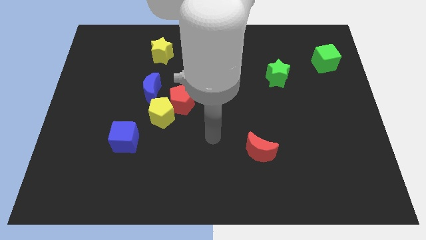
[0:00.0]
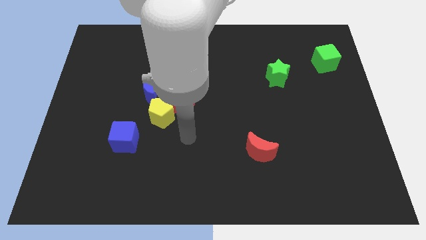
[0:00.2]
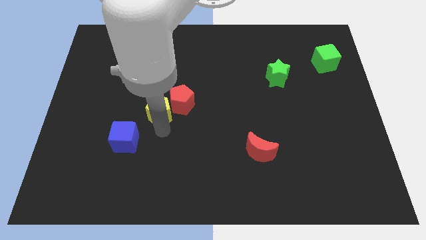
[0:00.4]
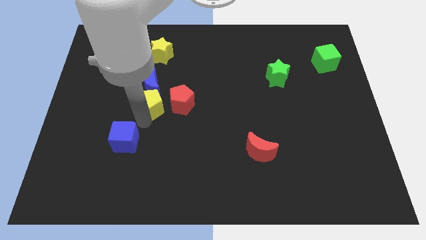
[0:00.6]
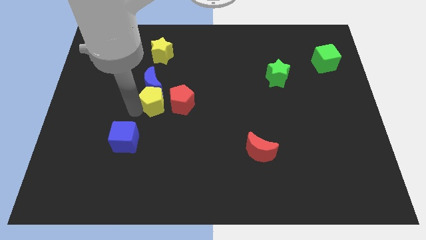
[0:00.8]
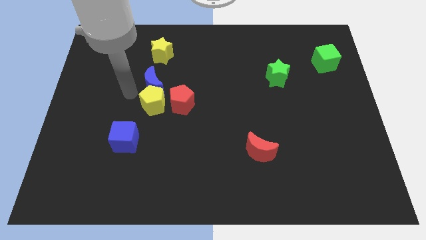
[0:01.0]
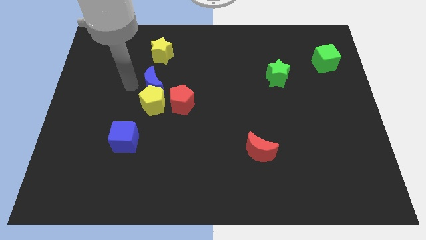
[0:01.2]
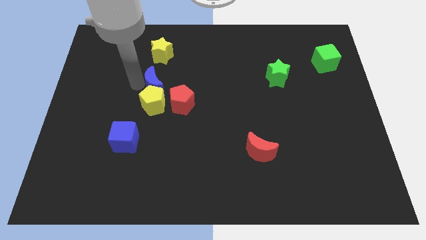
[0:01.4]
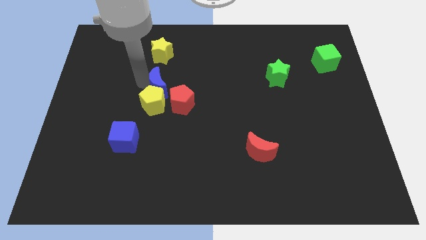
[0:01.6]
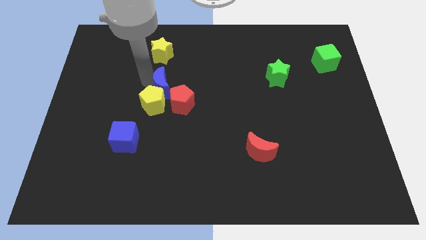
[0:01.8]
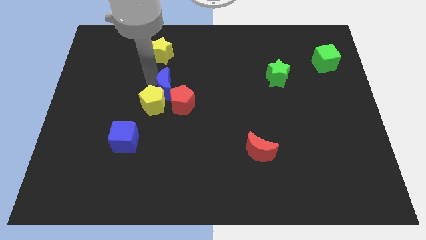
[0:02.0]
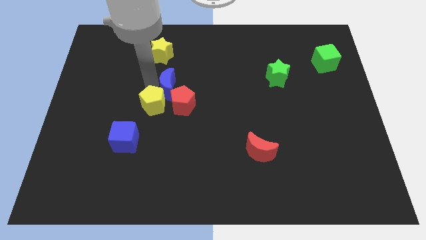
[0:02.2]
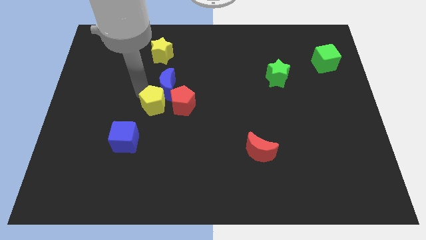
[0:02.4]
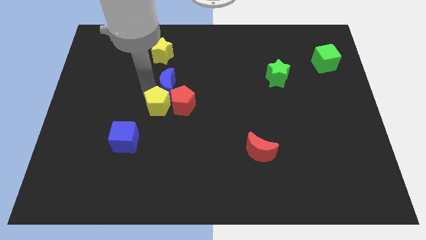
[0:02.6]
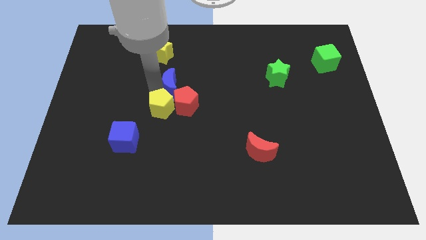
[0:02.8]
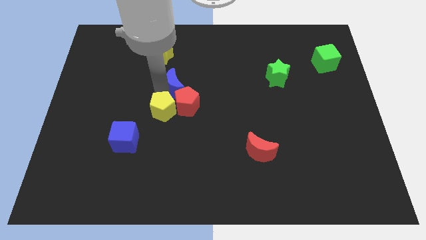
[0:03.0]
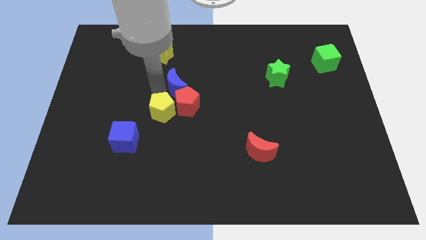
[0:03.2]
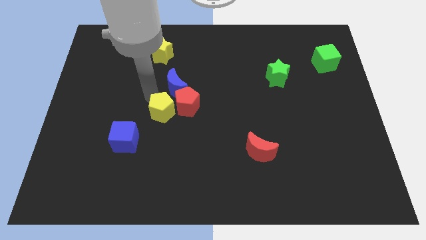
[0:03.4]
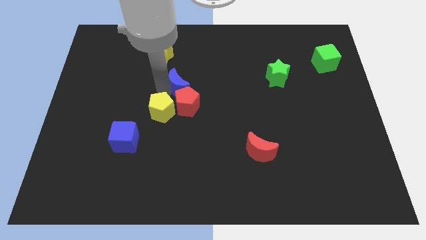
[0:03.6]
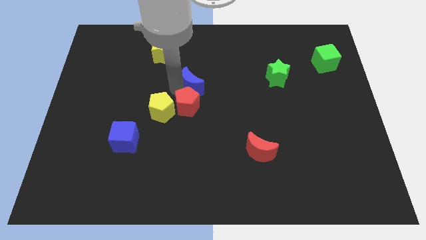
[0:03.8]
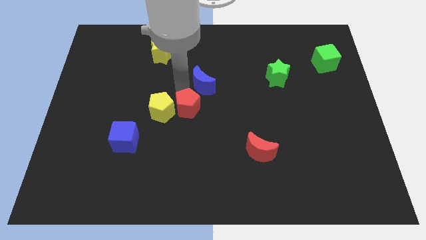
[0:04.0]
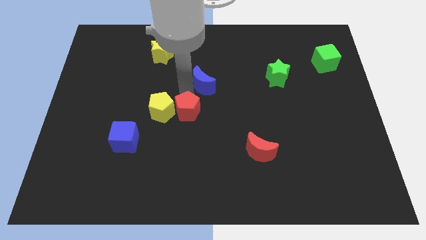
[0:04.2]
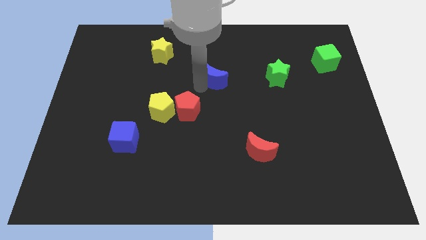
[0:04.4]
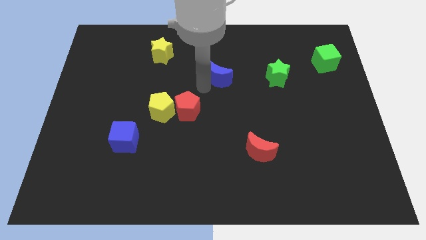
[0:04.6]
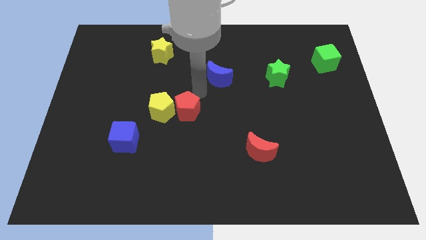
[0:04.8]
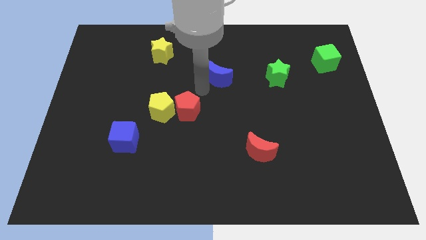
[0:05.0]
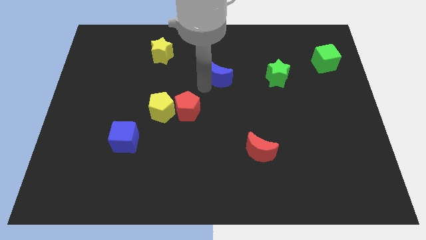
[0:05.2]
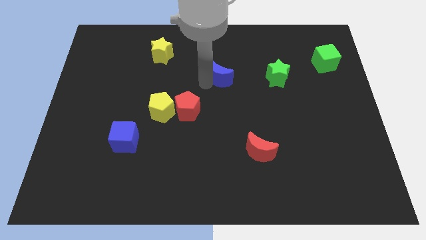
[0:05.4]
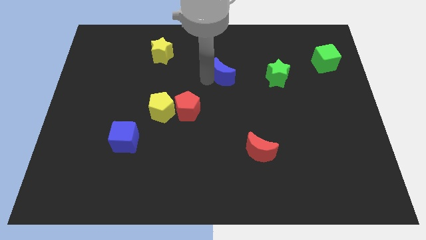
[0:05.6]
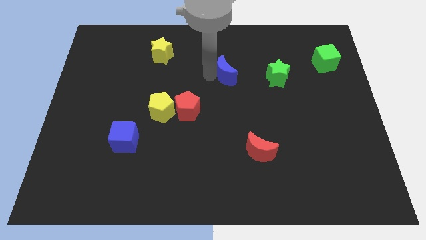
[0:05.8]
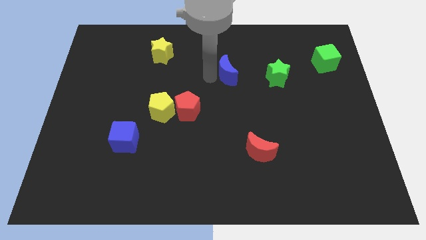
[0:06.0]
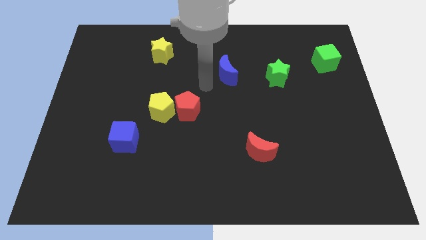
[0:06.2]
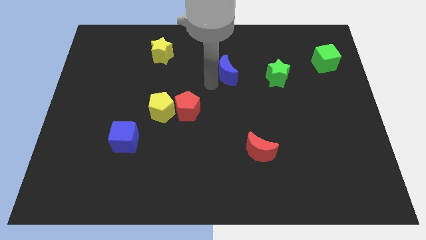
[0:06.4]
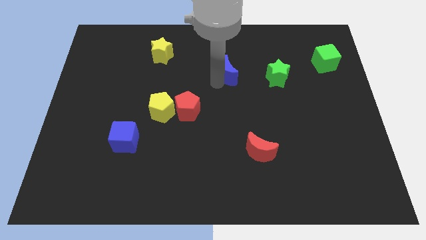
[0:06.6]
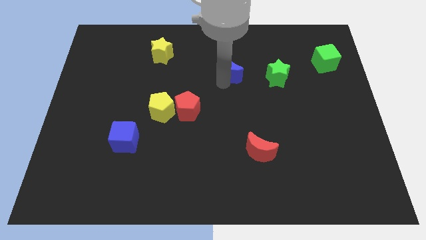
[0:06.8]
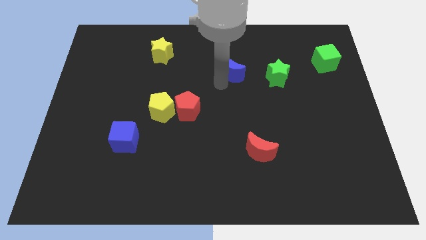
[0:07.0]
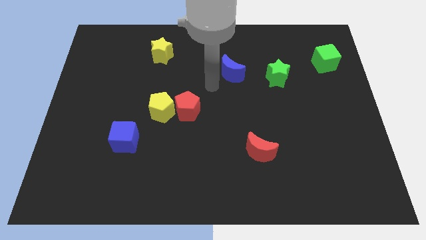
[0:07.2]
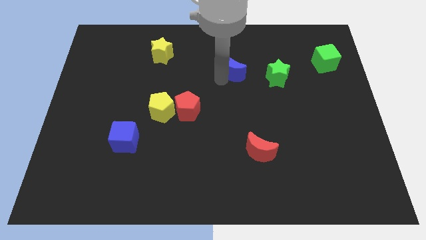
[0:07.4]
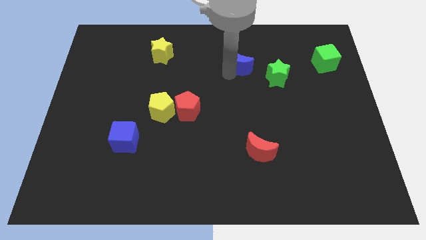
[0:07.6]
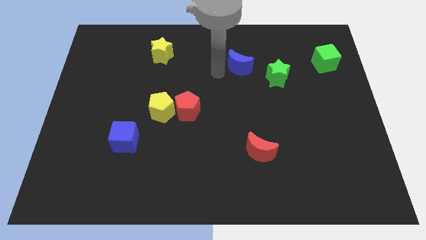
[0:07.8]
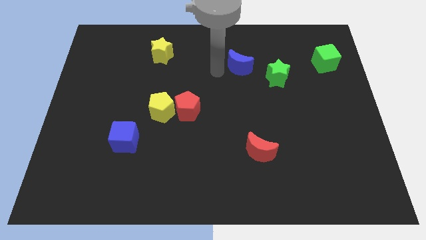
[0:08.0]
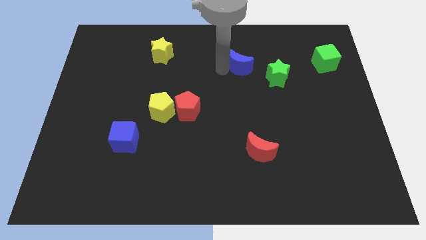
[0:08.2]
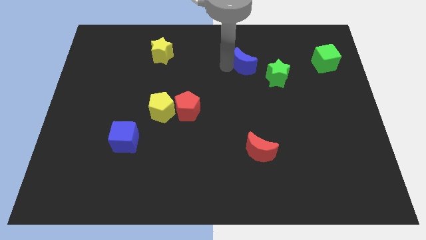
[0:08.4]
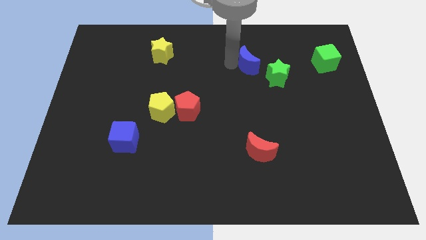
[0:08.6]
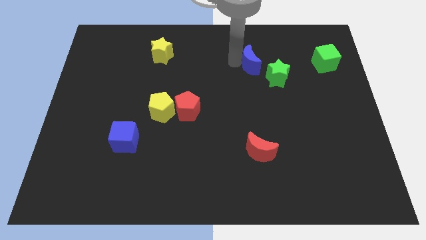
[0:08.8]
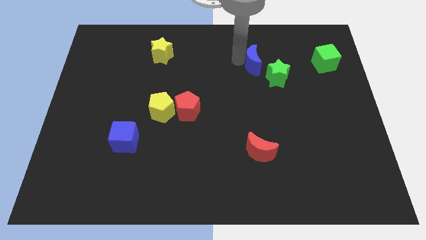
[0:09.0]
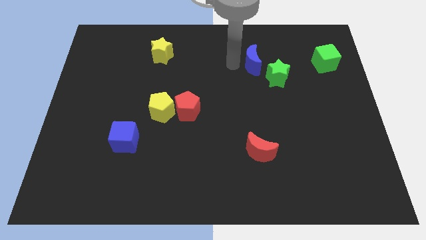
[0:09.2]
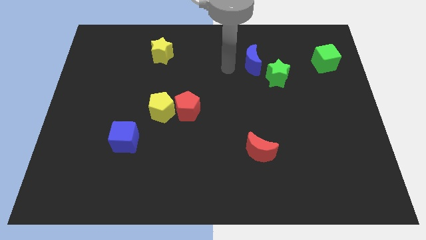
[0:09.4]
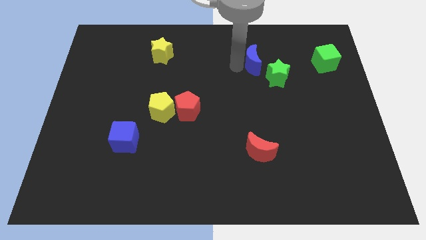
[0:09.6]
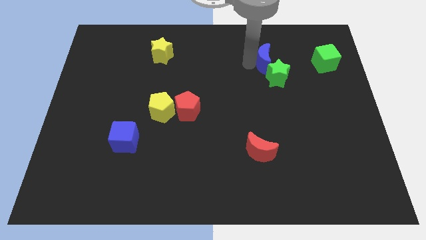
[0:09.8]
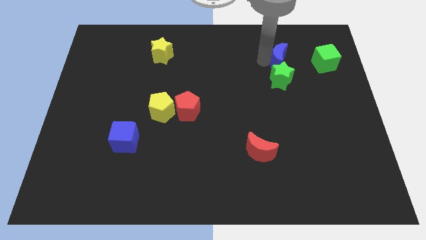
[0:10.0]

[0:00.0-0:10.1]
push the blue moon diagonally up and to the right of the green star

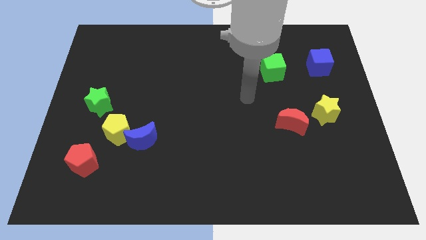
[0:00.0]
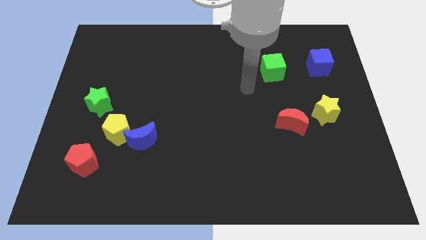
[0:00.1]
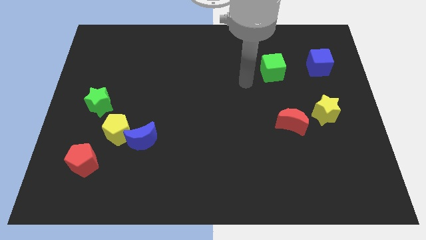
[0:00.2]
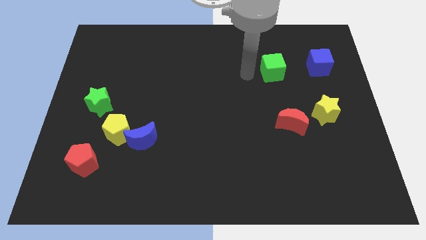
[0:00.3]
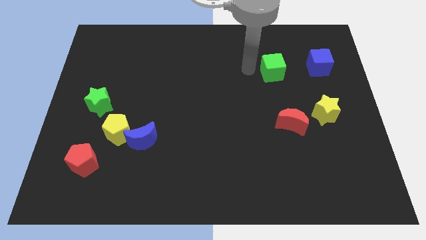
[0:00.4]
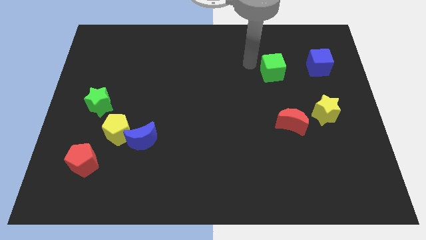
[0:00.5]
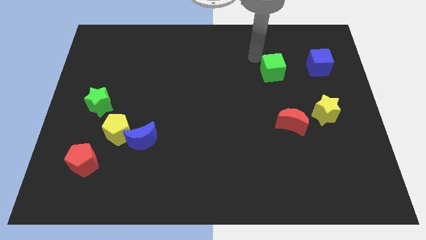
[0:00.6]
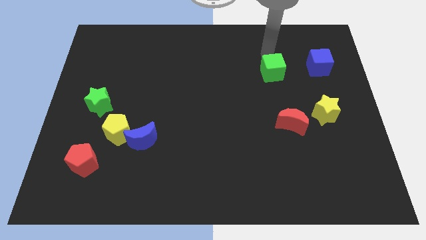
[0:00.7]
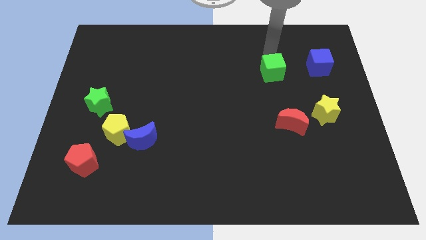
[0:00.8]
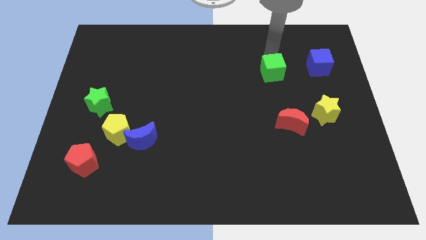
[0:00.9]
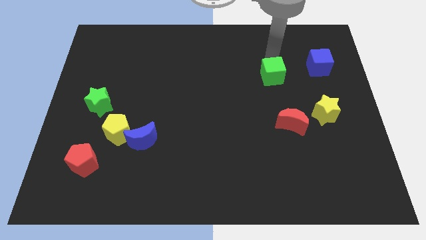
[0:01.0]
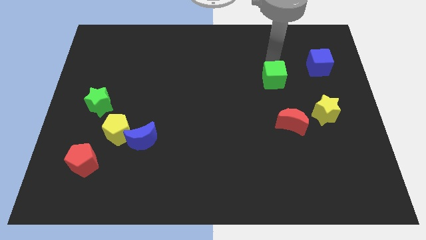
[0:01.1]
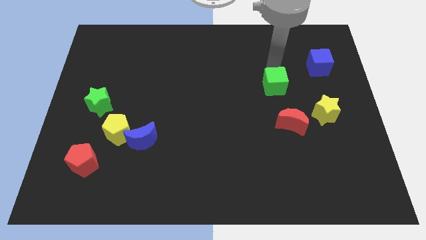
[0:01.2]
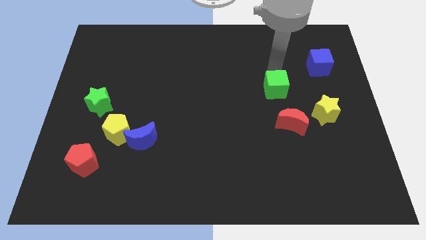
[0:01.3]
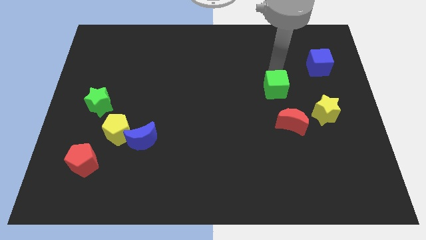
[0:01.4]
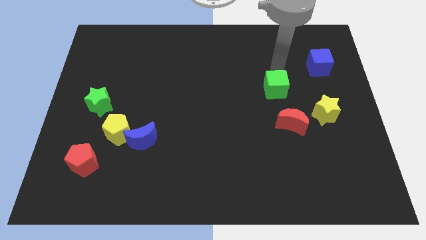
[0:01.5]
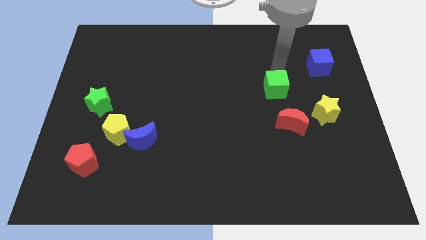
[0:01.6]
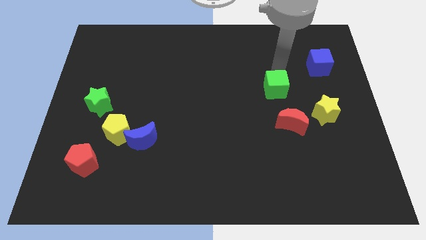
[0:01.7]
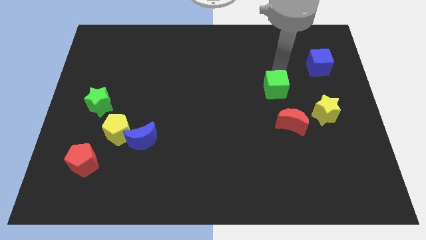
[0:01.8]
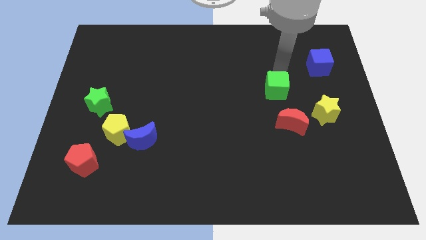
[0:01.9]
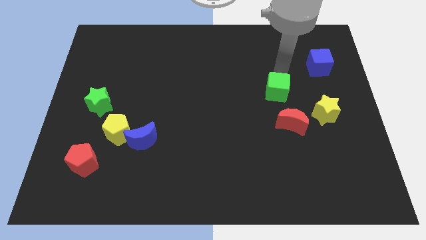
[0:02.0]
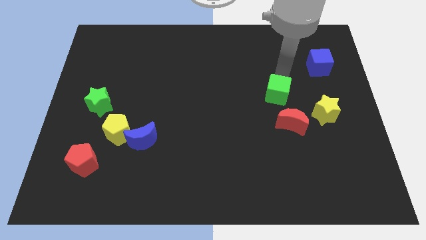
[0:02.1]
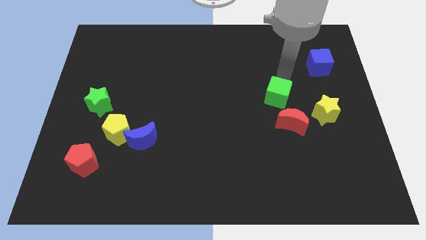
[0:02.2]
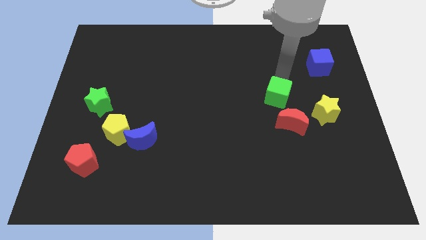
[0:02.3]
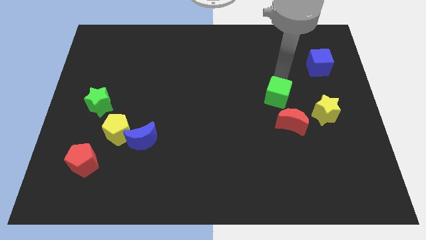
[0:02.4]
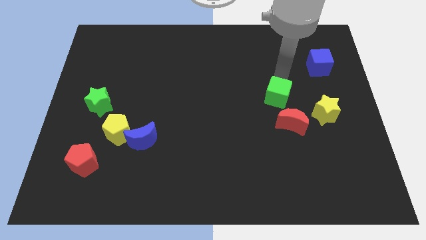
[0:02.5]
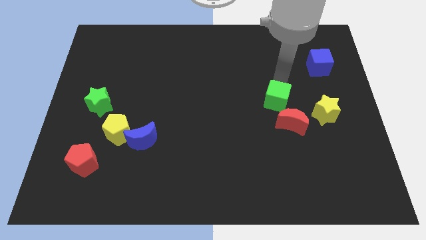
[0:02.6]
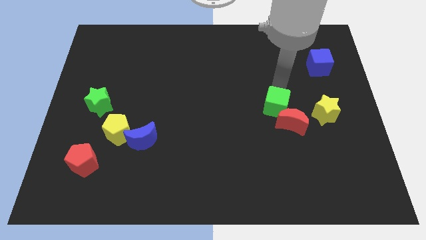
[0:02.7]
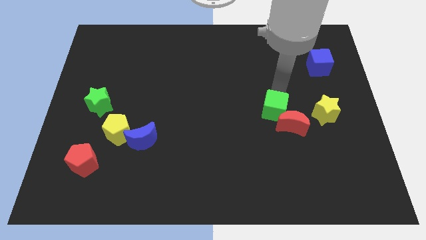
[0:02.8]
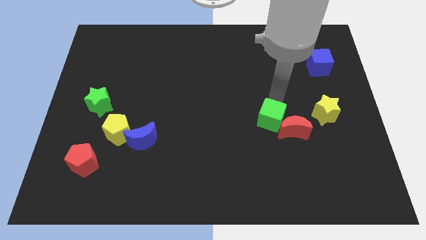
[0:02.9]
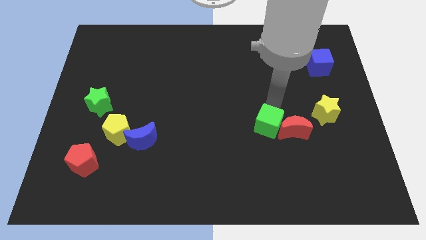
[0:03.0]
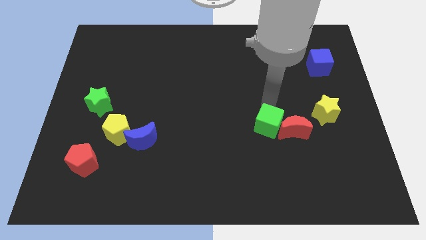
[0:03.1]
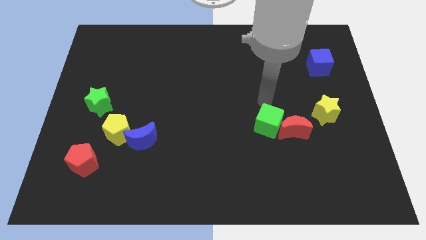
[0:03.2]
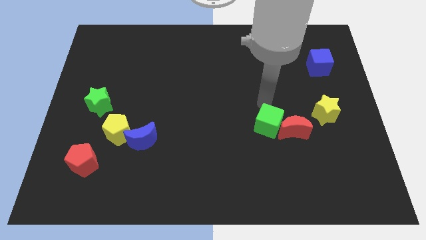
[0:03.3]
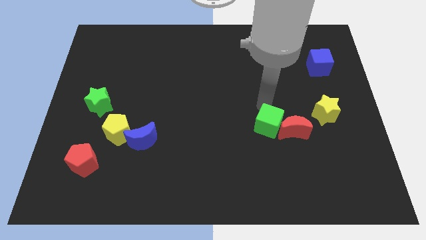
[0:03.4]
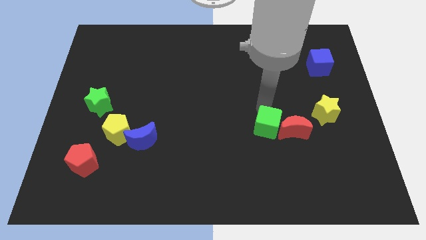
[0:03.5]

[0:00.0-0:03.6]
slide the green cube diagonally down and to the left of the red moon
